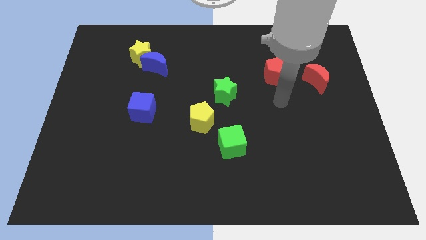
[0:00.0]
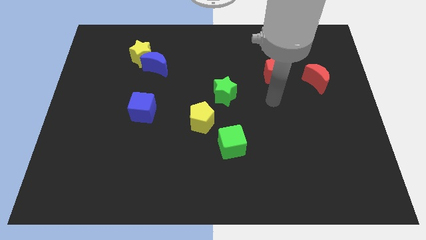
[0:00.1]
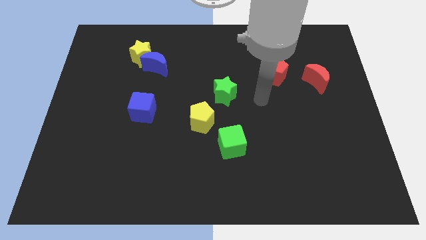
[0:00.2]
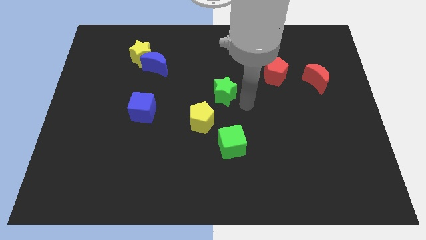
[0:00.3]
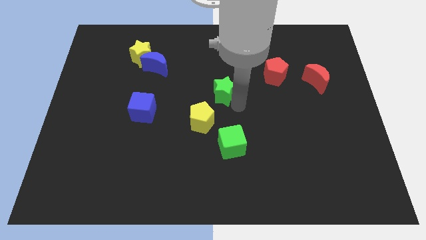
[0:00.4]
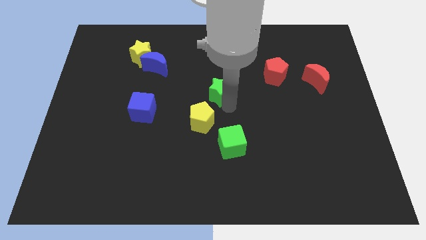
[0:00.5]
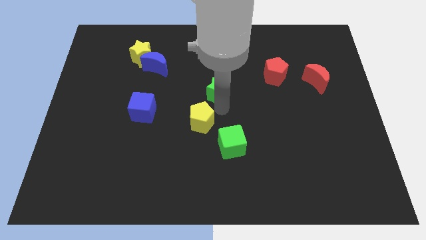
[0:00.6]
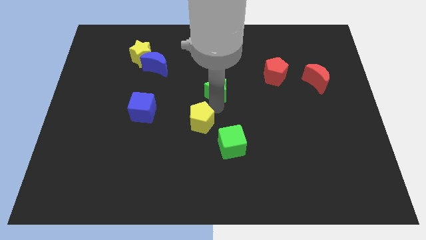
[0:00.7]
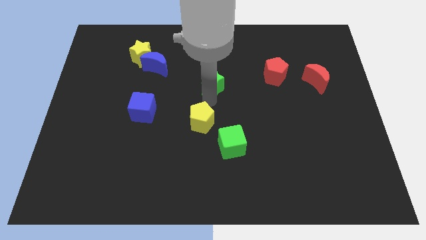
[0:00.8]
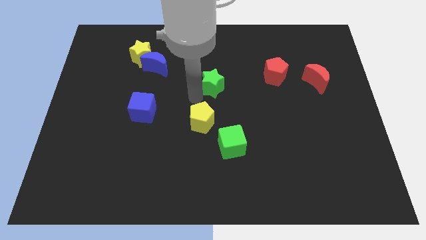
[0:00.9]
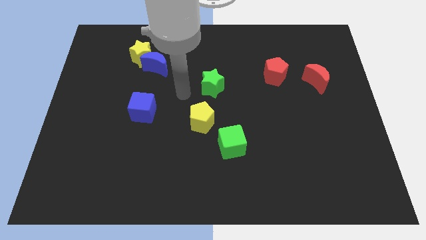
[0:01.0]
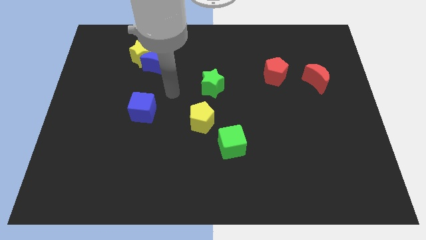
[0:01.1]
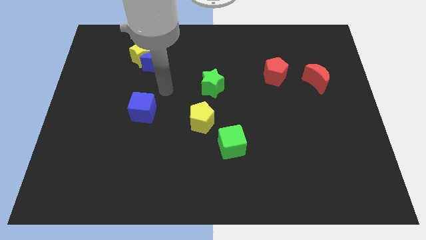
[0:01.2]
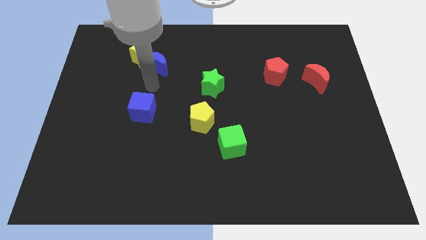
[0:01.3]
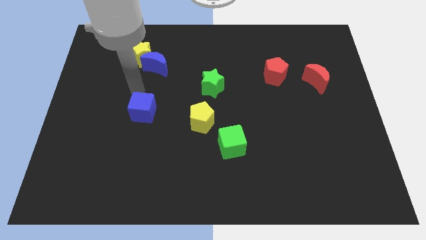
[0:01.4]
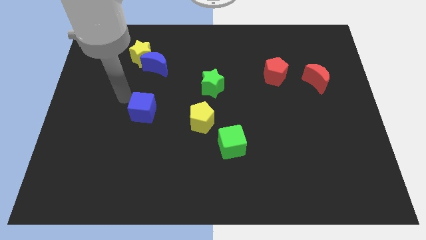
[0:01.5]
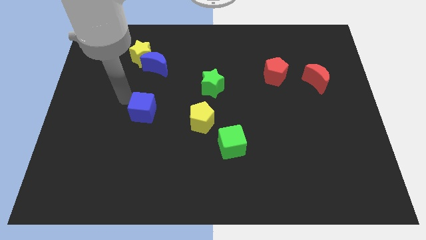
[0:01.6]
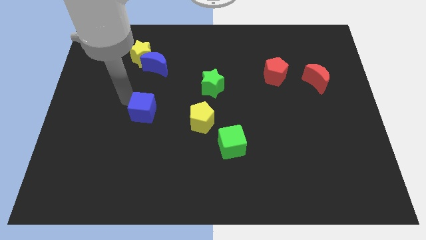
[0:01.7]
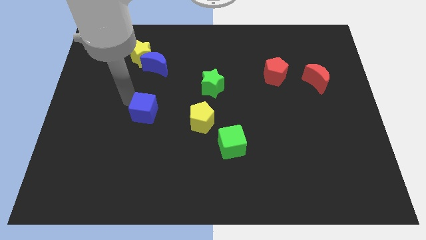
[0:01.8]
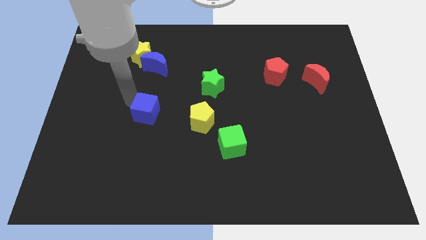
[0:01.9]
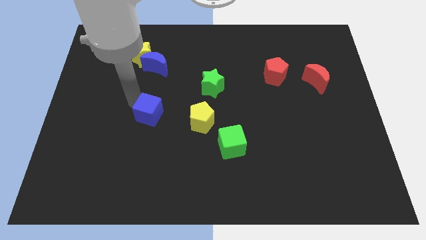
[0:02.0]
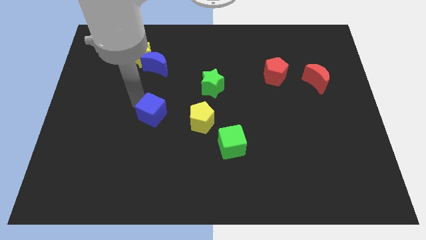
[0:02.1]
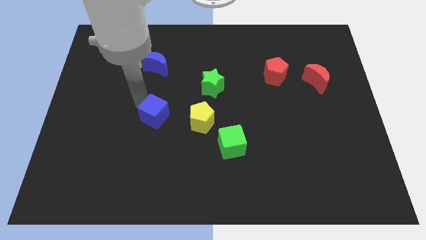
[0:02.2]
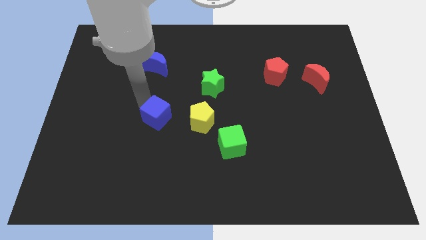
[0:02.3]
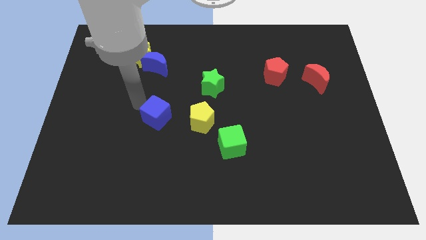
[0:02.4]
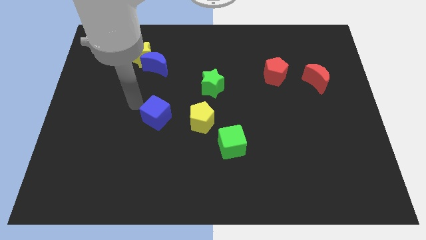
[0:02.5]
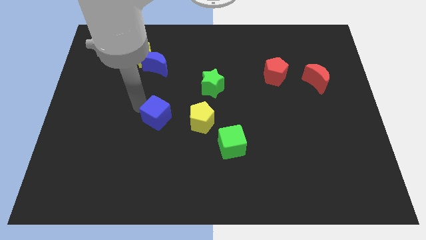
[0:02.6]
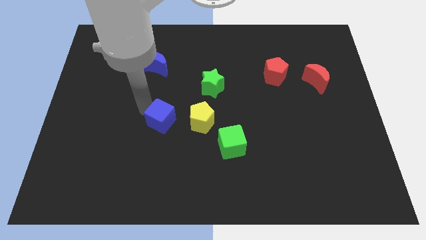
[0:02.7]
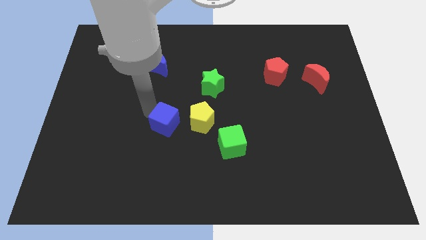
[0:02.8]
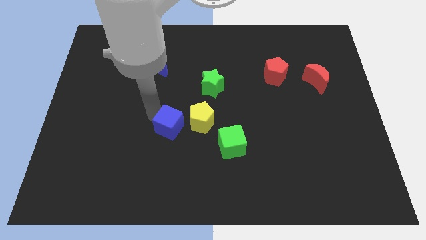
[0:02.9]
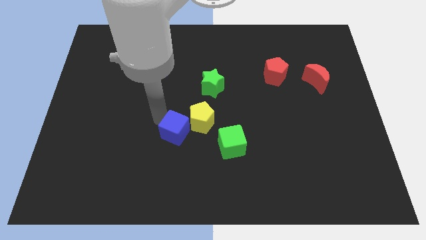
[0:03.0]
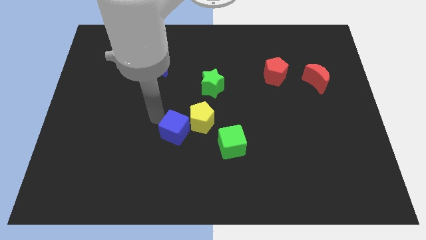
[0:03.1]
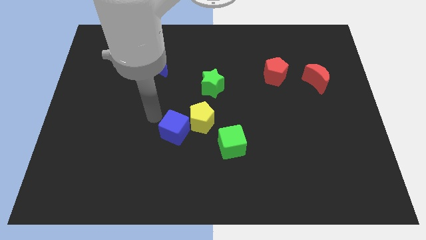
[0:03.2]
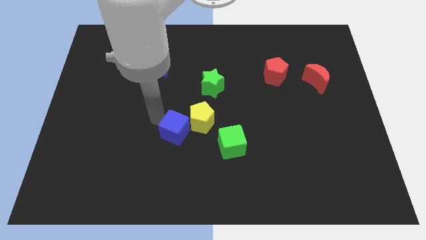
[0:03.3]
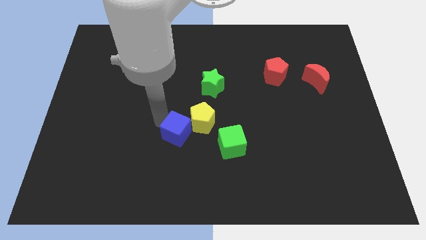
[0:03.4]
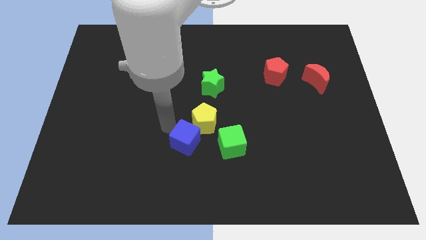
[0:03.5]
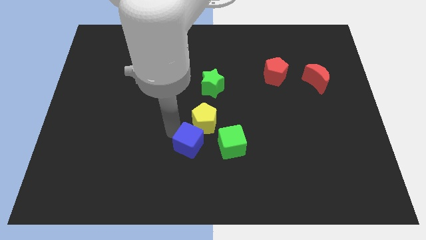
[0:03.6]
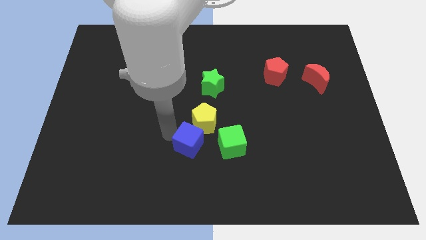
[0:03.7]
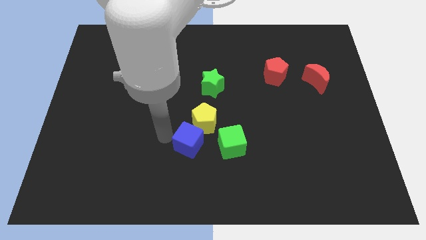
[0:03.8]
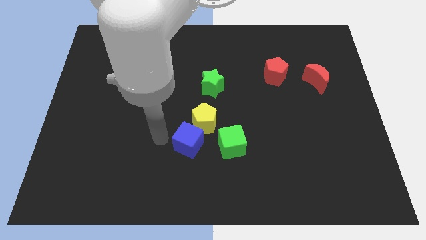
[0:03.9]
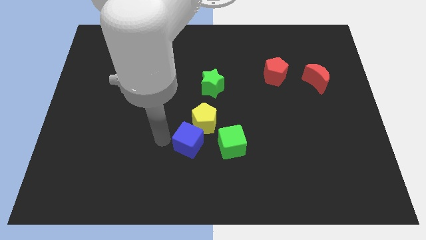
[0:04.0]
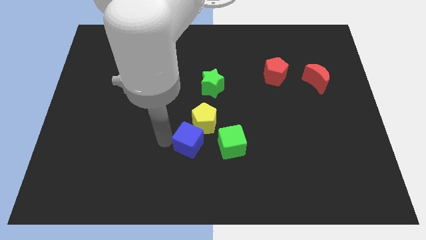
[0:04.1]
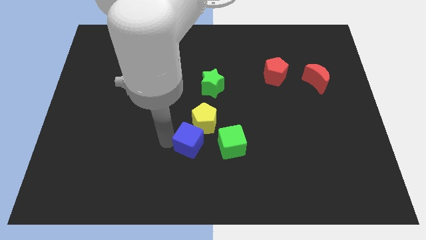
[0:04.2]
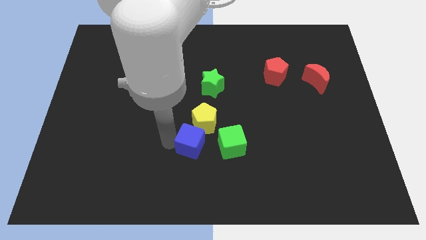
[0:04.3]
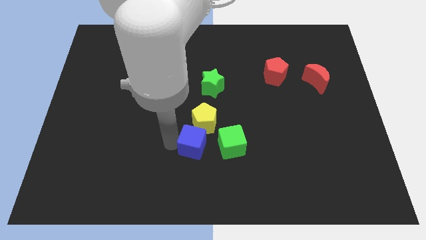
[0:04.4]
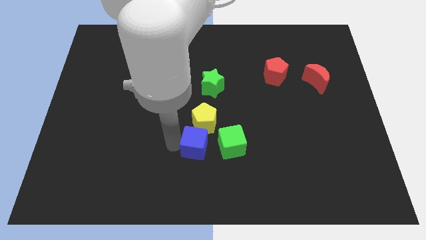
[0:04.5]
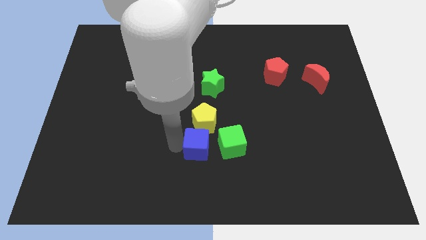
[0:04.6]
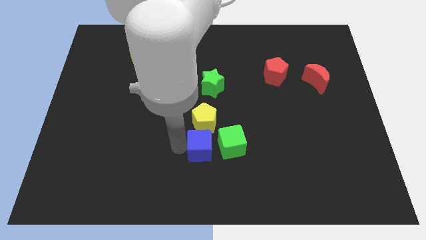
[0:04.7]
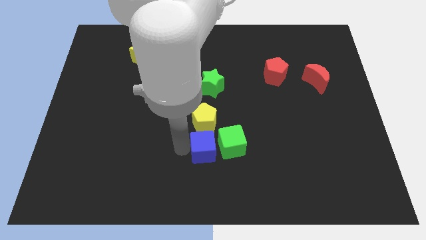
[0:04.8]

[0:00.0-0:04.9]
move the blue cube towards the green cube

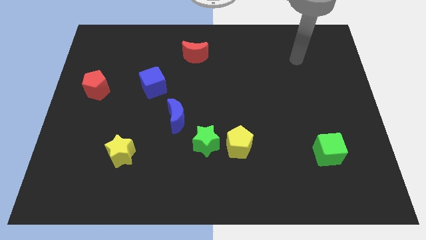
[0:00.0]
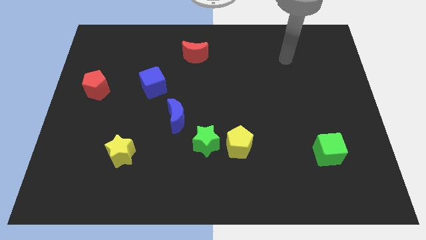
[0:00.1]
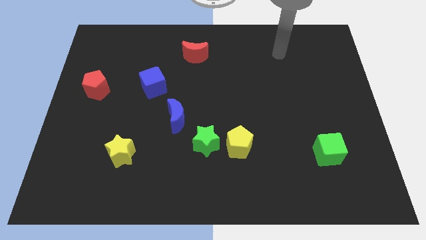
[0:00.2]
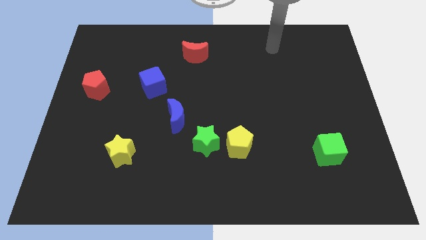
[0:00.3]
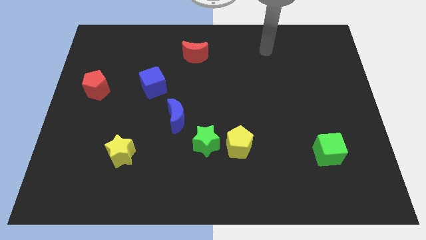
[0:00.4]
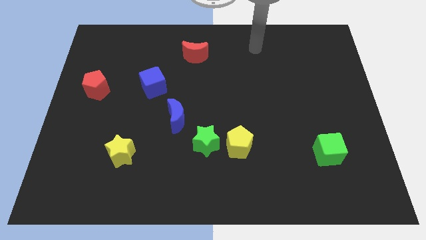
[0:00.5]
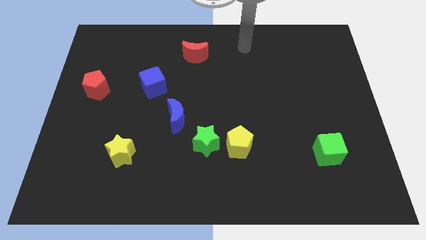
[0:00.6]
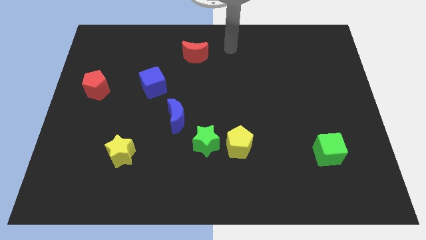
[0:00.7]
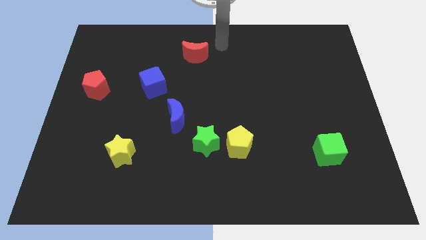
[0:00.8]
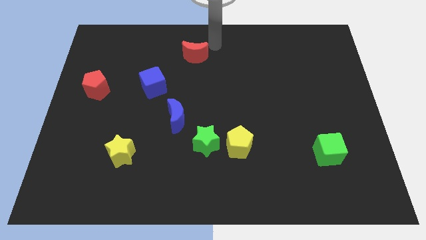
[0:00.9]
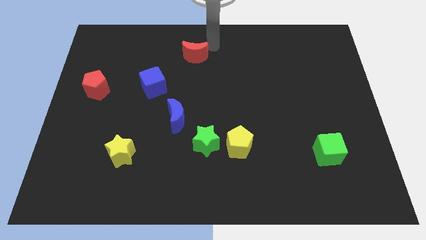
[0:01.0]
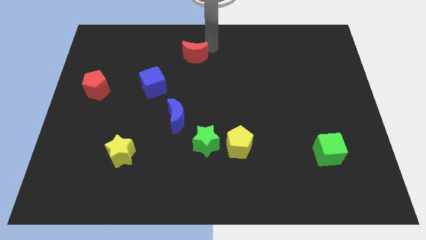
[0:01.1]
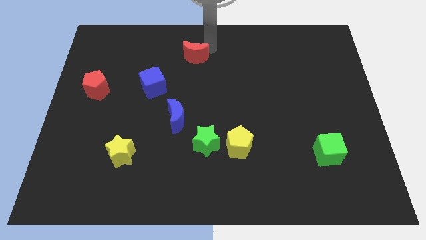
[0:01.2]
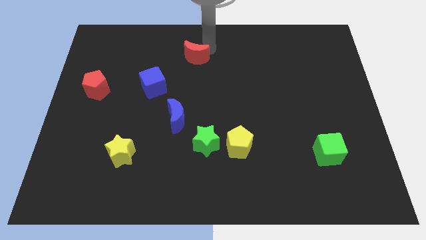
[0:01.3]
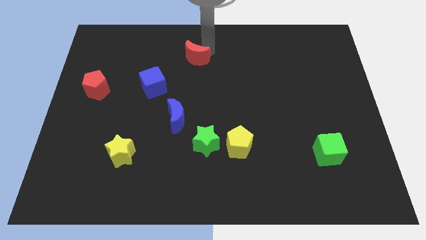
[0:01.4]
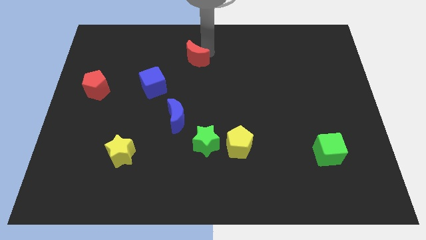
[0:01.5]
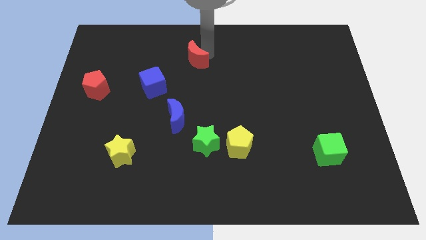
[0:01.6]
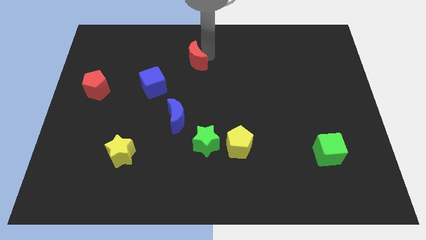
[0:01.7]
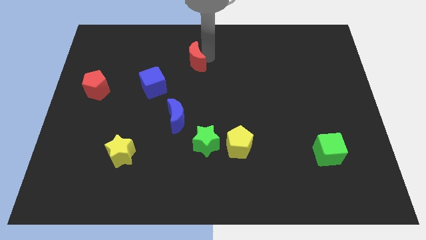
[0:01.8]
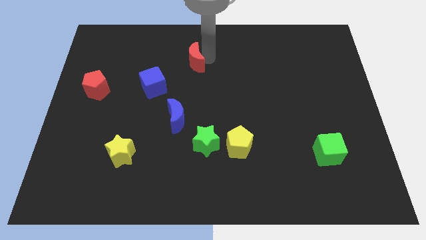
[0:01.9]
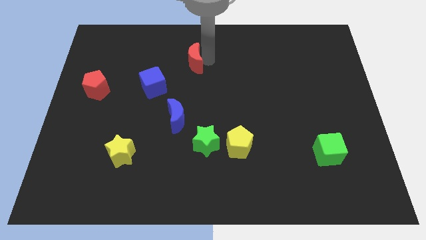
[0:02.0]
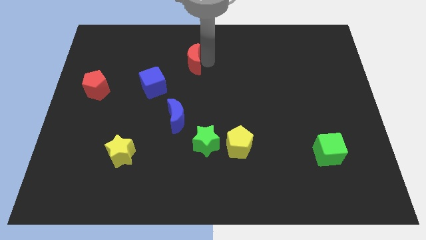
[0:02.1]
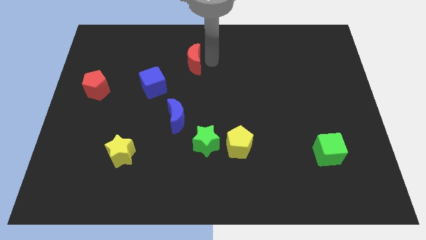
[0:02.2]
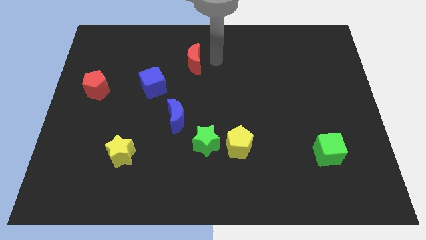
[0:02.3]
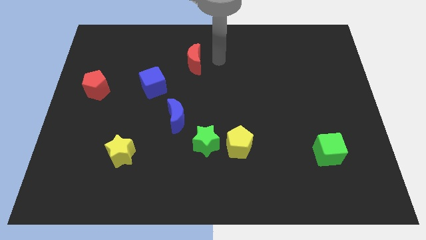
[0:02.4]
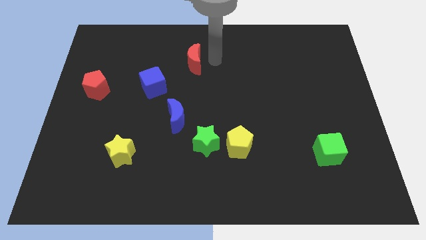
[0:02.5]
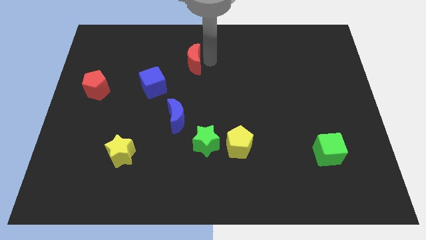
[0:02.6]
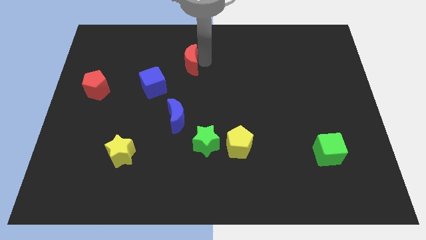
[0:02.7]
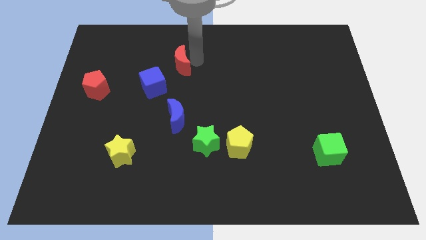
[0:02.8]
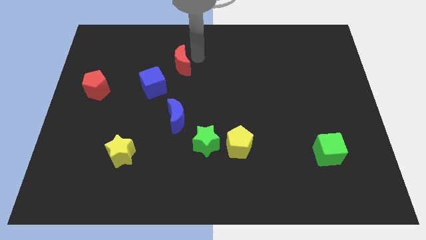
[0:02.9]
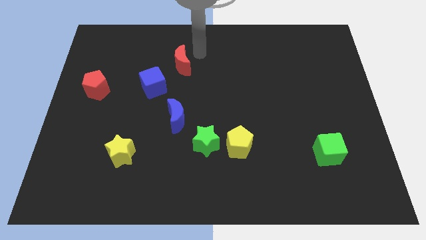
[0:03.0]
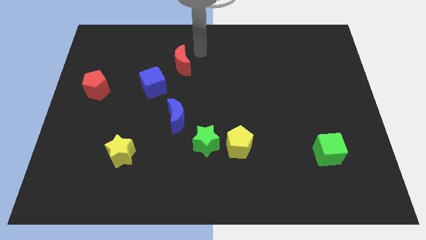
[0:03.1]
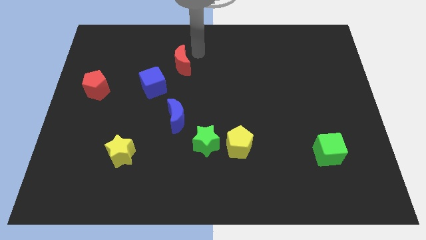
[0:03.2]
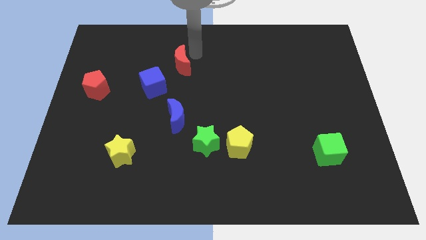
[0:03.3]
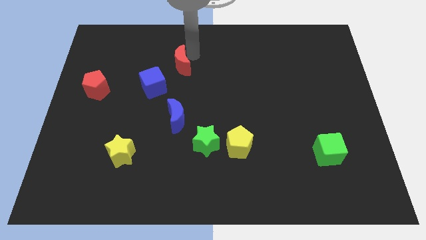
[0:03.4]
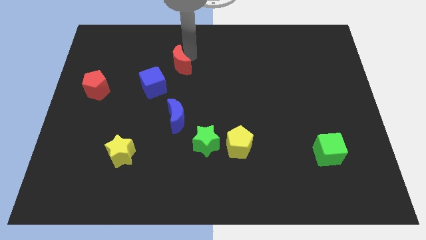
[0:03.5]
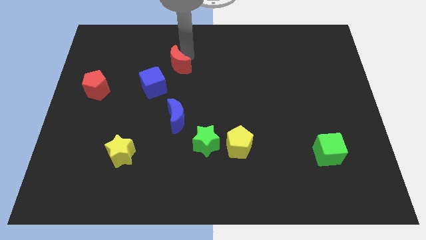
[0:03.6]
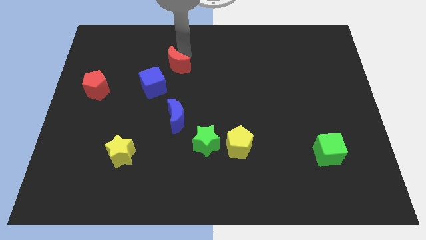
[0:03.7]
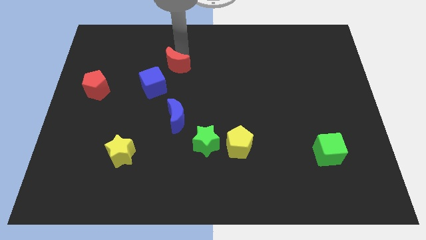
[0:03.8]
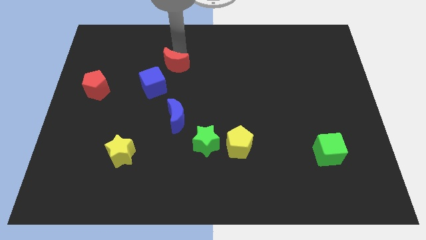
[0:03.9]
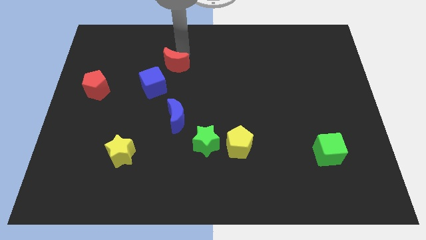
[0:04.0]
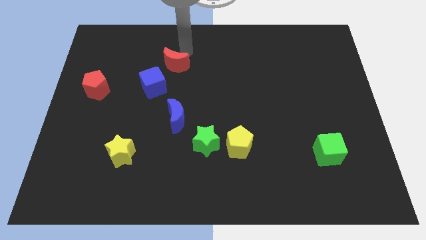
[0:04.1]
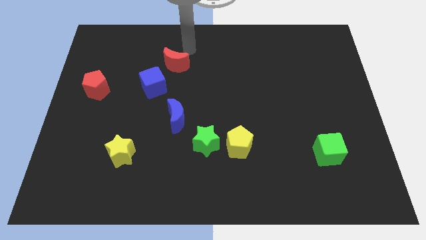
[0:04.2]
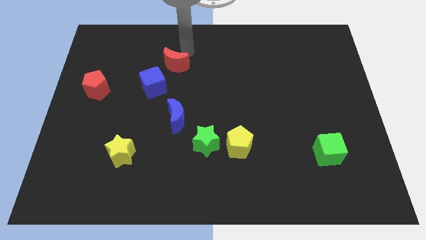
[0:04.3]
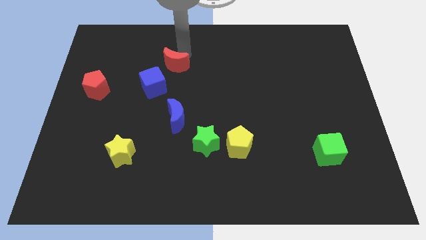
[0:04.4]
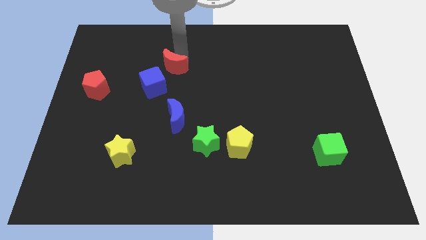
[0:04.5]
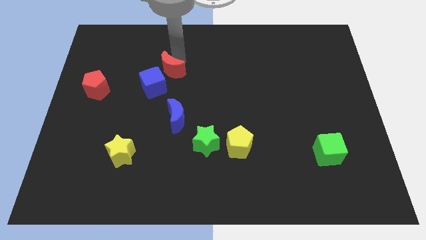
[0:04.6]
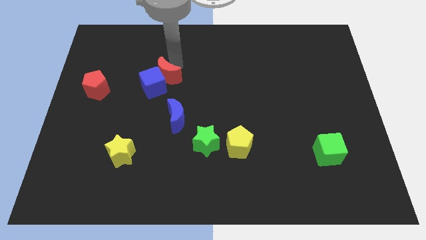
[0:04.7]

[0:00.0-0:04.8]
push the red moon close to the blue cube
